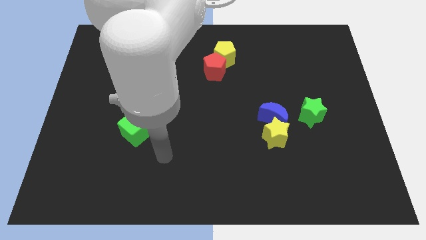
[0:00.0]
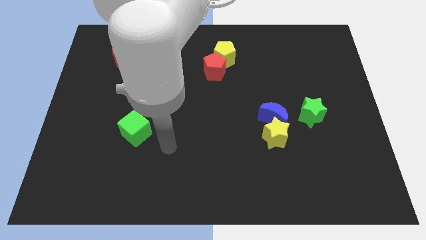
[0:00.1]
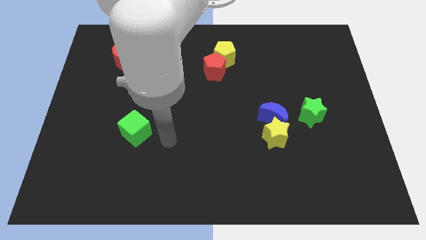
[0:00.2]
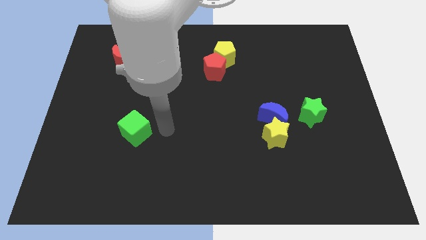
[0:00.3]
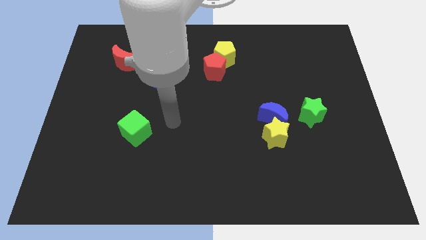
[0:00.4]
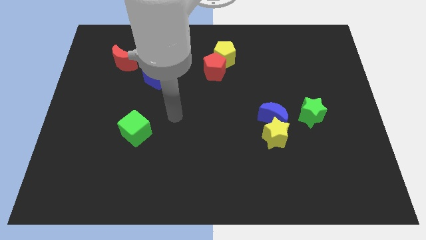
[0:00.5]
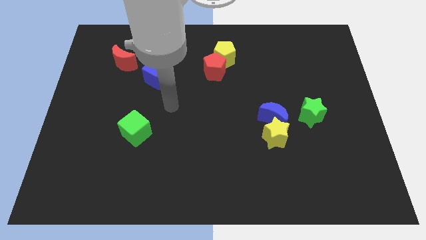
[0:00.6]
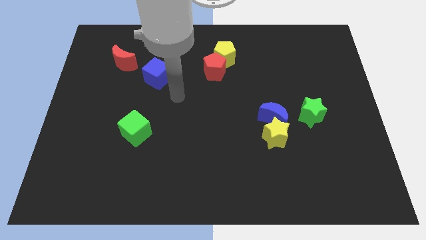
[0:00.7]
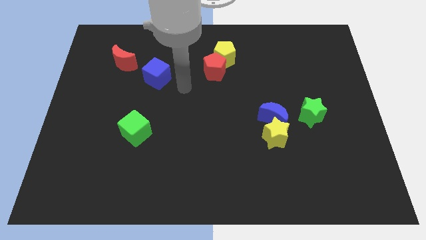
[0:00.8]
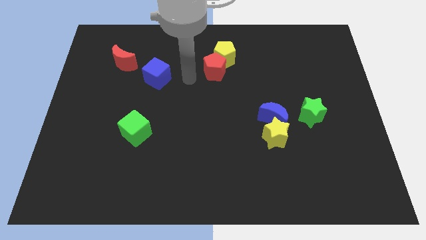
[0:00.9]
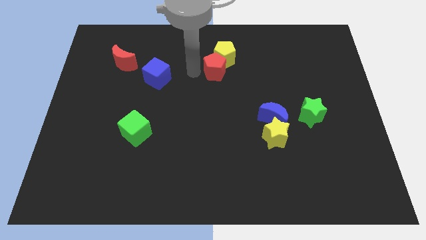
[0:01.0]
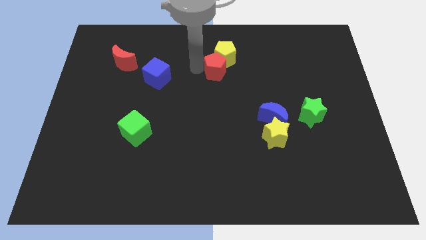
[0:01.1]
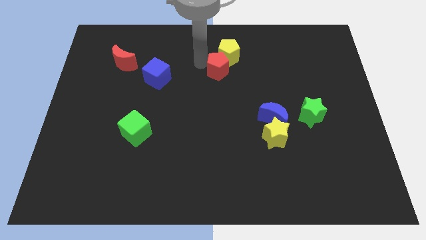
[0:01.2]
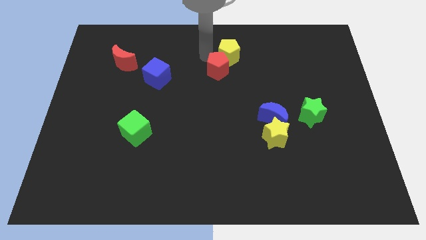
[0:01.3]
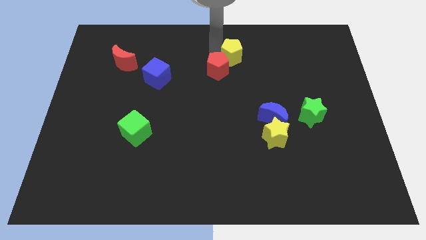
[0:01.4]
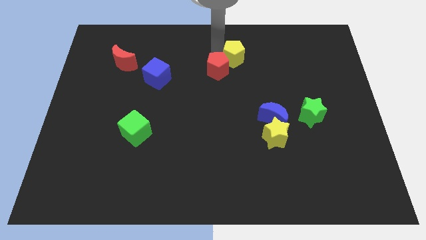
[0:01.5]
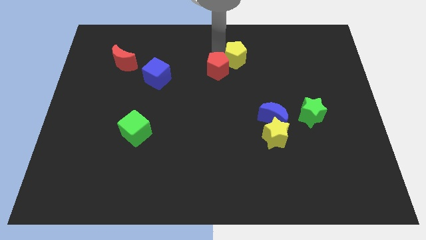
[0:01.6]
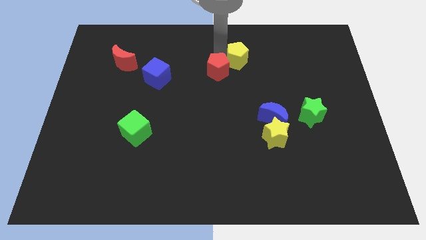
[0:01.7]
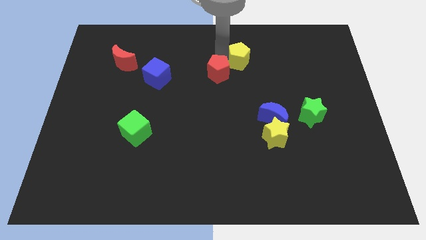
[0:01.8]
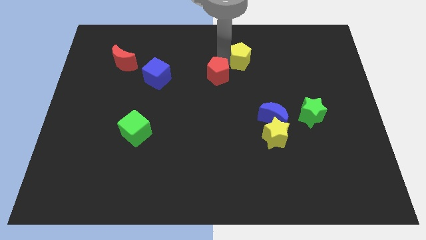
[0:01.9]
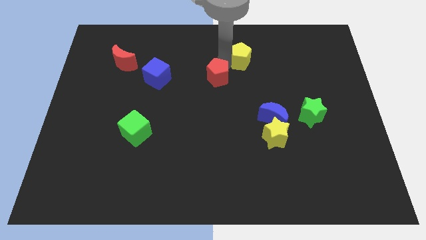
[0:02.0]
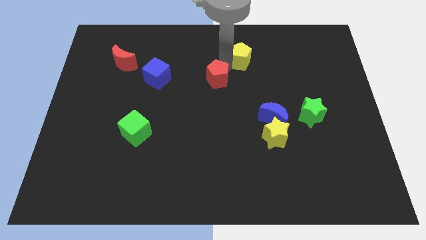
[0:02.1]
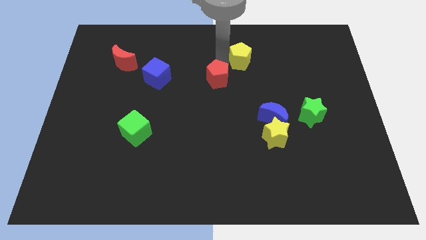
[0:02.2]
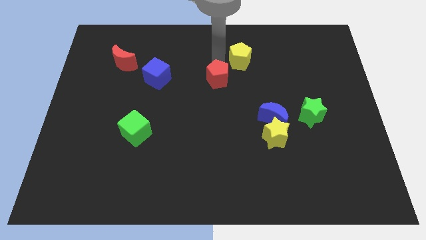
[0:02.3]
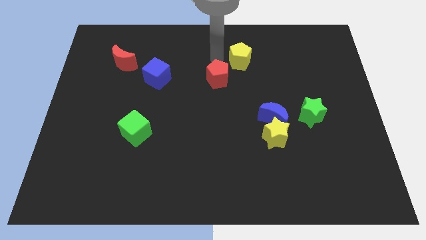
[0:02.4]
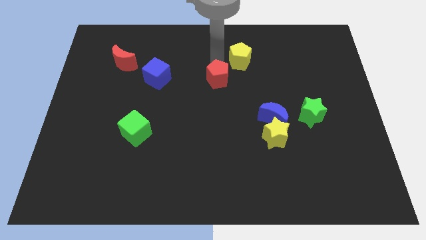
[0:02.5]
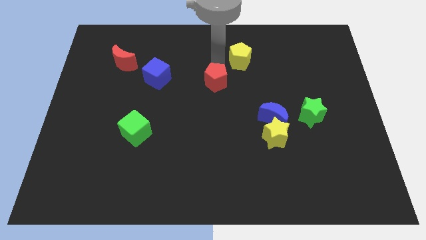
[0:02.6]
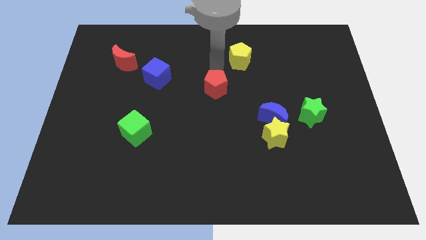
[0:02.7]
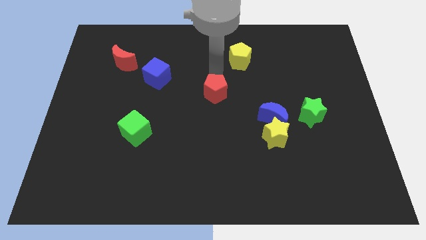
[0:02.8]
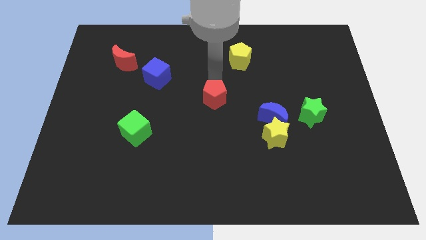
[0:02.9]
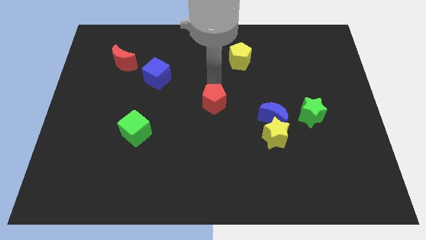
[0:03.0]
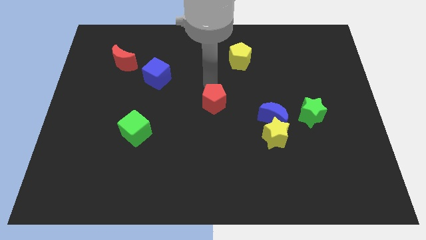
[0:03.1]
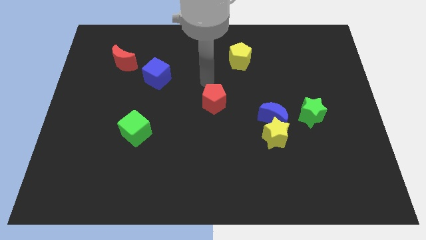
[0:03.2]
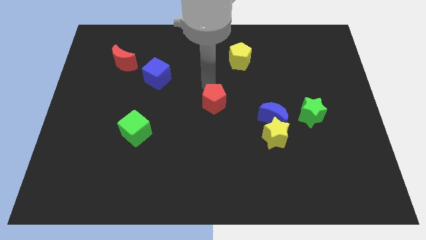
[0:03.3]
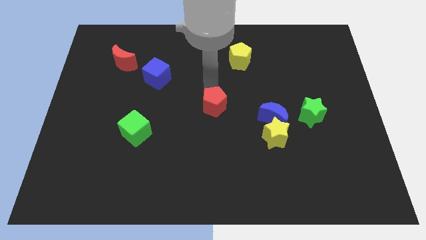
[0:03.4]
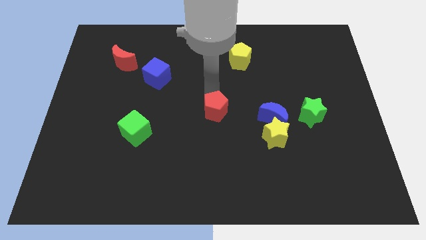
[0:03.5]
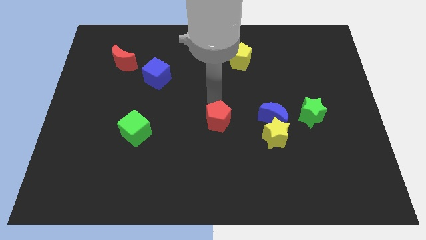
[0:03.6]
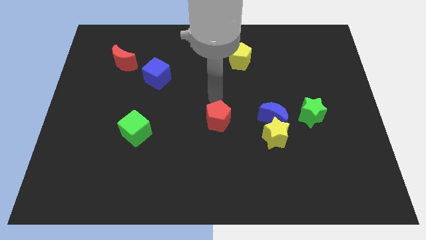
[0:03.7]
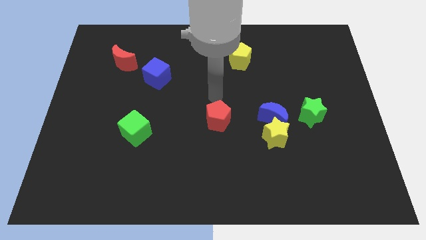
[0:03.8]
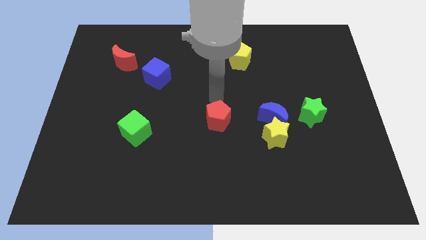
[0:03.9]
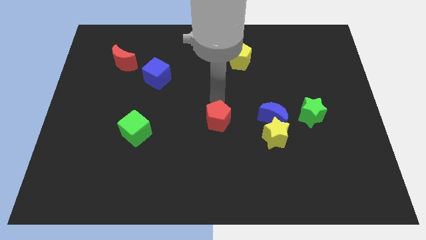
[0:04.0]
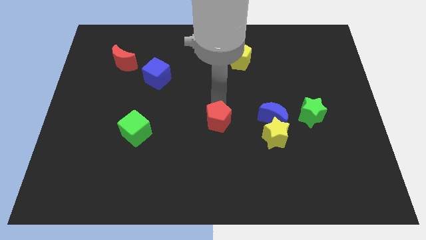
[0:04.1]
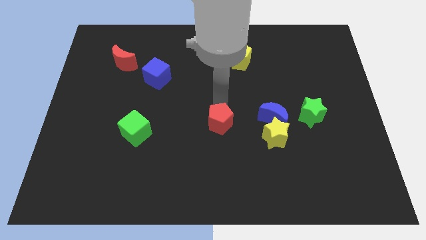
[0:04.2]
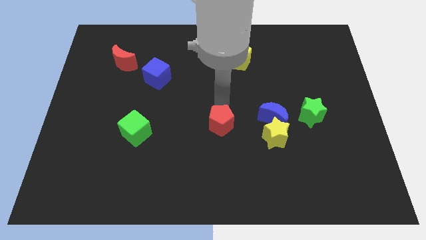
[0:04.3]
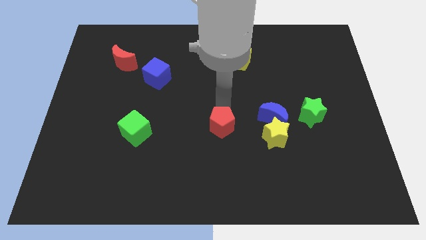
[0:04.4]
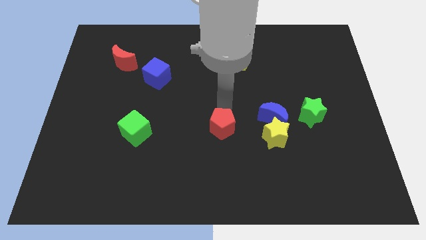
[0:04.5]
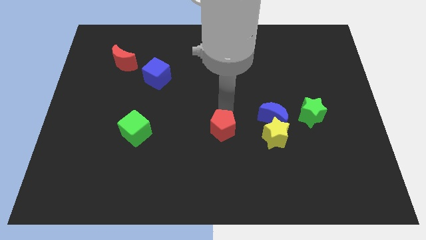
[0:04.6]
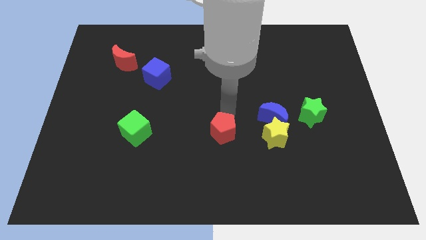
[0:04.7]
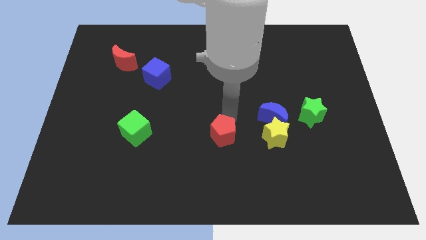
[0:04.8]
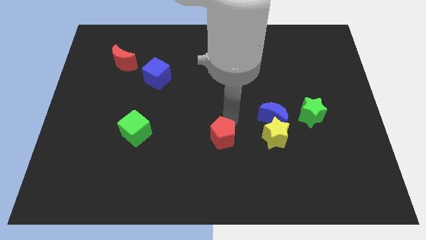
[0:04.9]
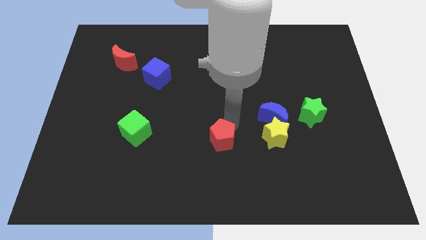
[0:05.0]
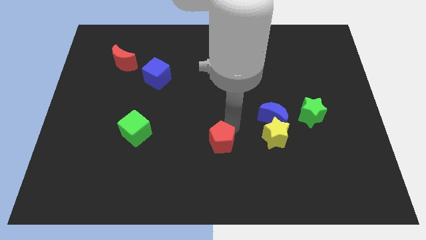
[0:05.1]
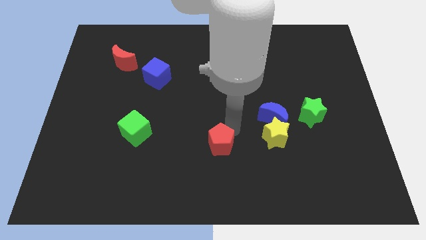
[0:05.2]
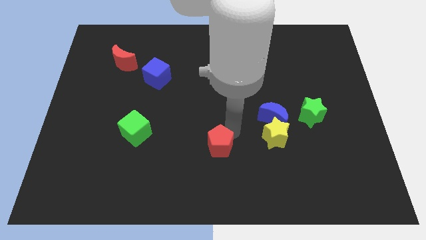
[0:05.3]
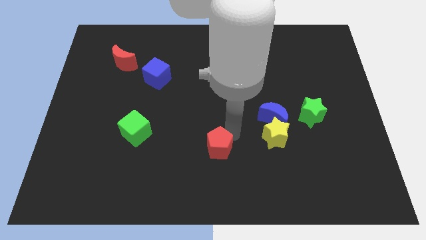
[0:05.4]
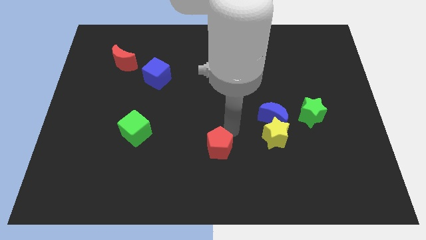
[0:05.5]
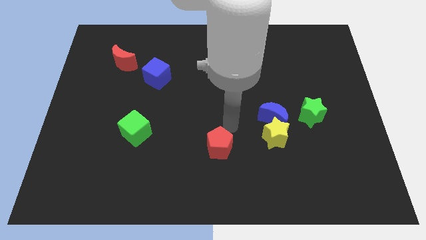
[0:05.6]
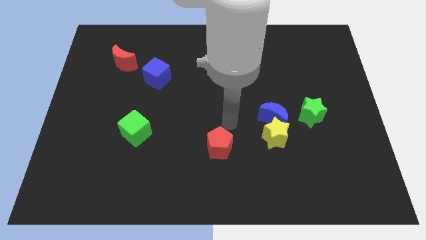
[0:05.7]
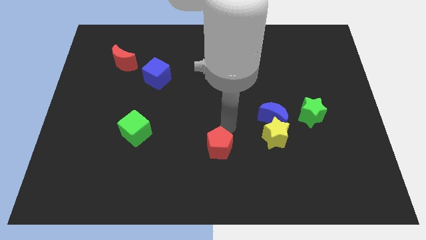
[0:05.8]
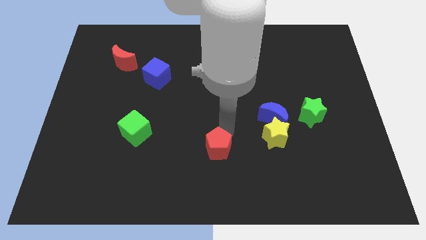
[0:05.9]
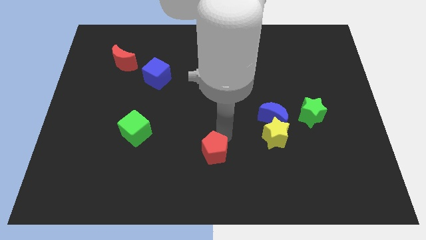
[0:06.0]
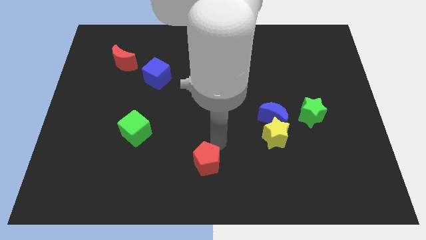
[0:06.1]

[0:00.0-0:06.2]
move the red pentagon to the bottom
